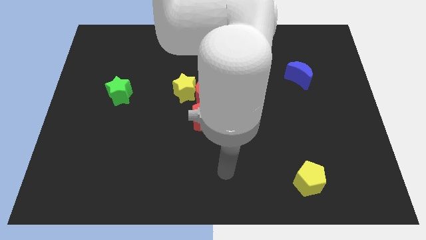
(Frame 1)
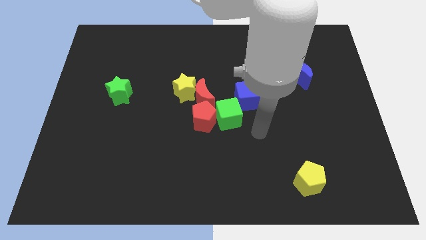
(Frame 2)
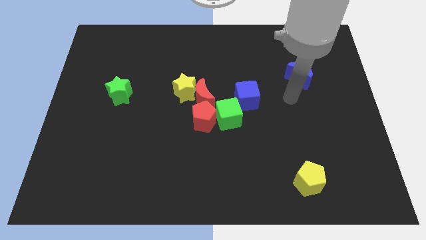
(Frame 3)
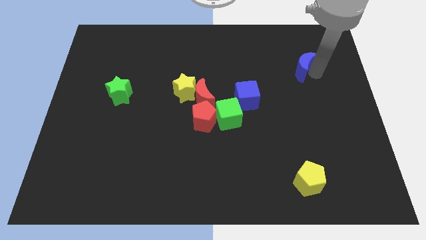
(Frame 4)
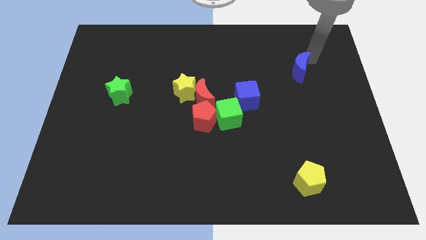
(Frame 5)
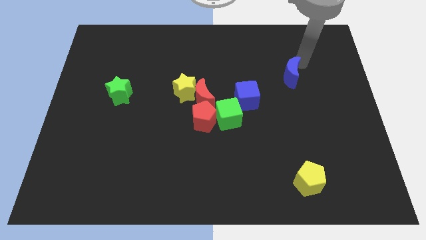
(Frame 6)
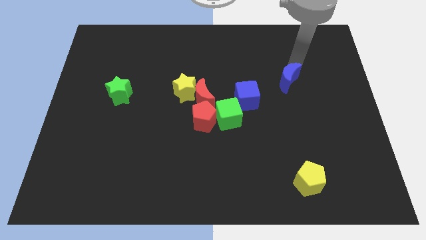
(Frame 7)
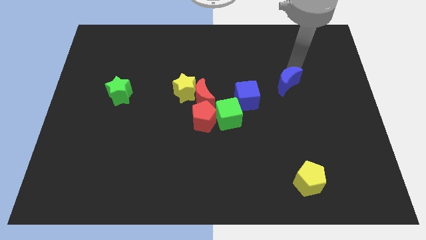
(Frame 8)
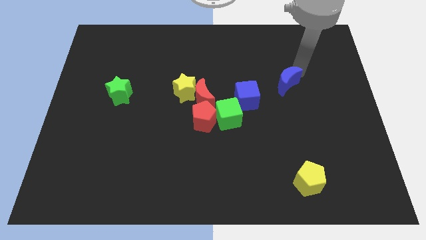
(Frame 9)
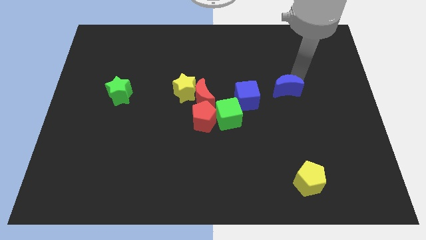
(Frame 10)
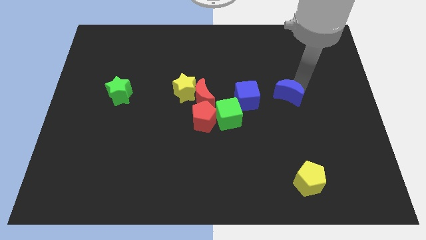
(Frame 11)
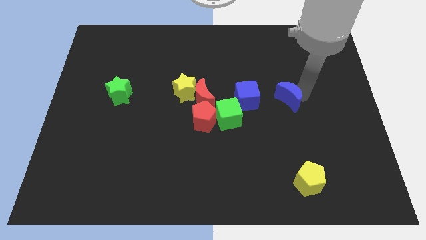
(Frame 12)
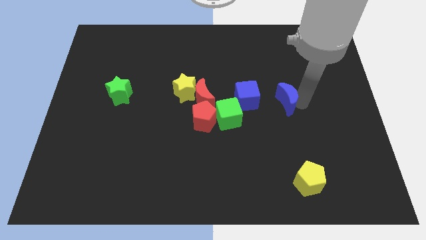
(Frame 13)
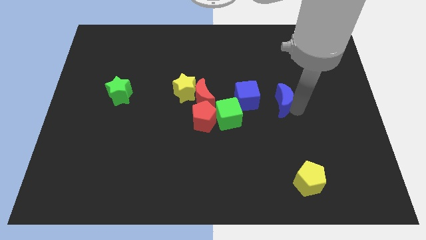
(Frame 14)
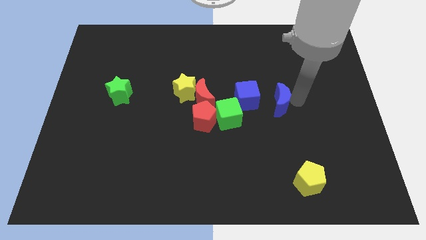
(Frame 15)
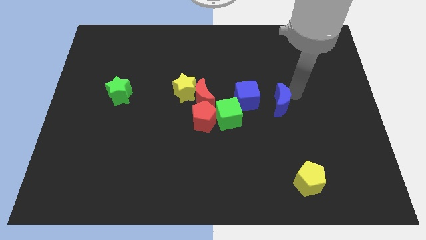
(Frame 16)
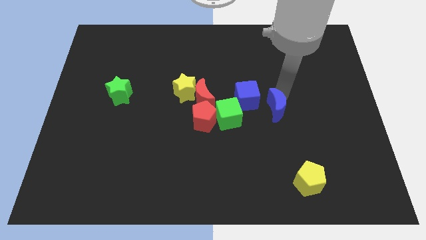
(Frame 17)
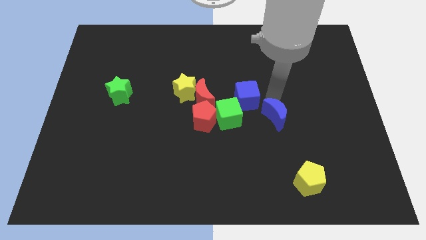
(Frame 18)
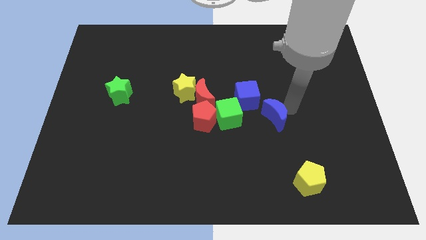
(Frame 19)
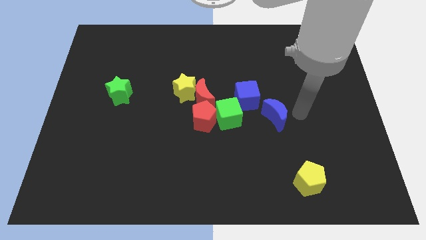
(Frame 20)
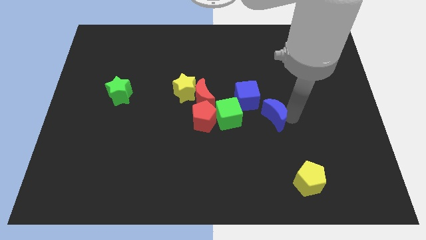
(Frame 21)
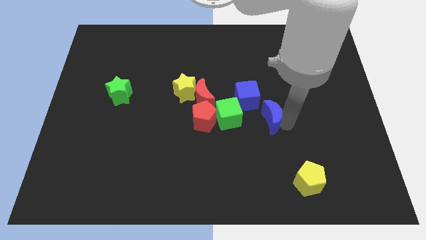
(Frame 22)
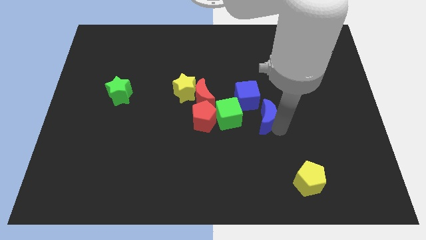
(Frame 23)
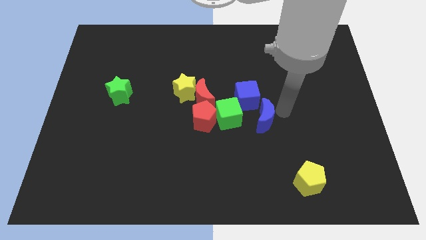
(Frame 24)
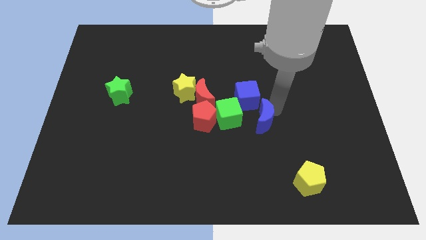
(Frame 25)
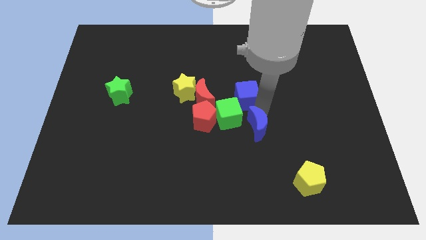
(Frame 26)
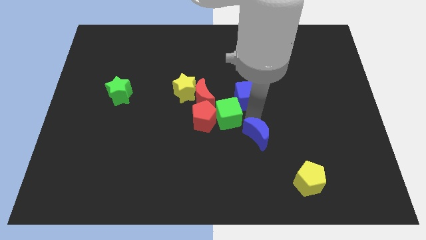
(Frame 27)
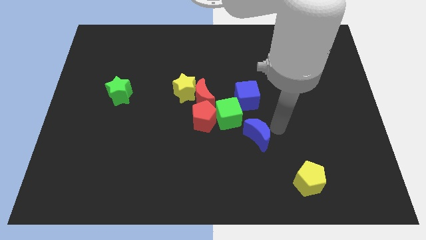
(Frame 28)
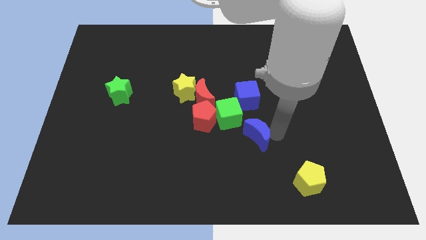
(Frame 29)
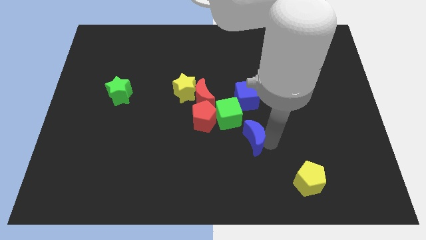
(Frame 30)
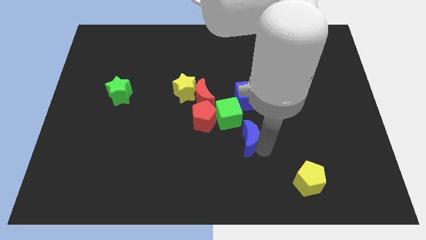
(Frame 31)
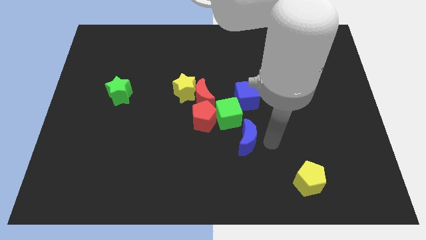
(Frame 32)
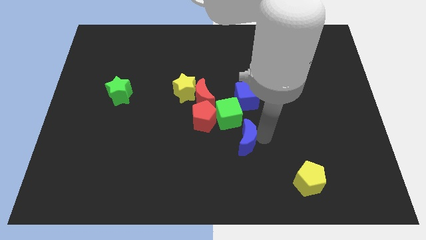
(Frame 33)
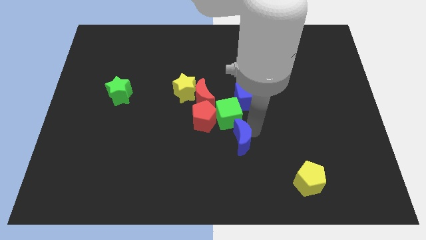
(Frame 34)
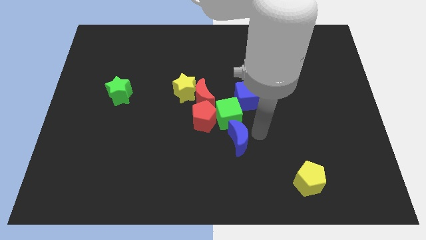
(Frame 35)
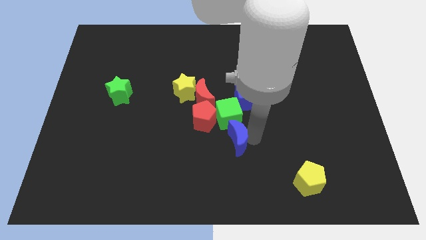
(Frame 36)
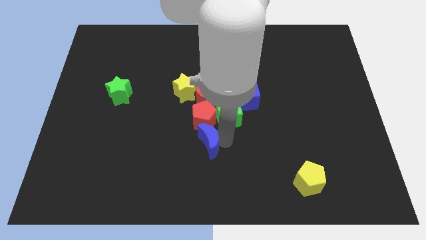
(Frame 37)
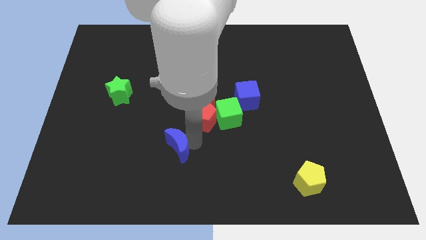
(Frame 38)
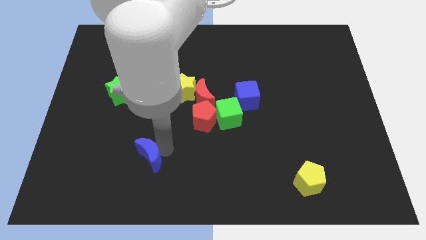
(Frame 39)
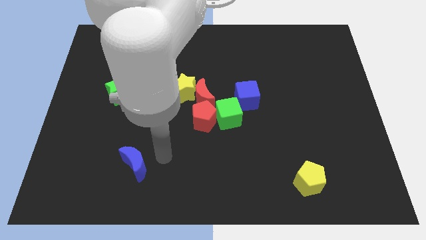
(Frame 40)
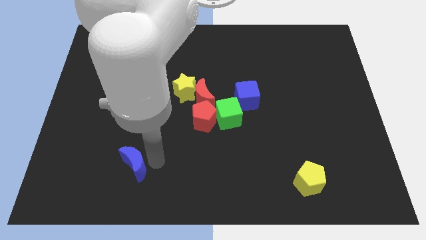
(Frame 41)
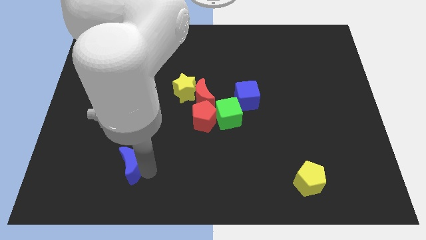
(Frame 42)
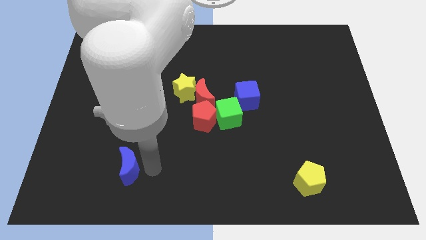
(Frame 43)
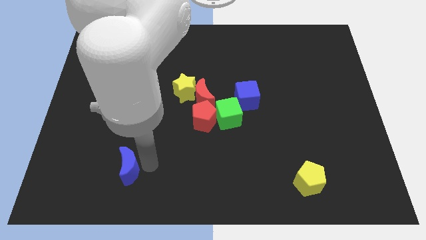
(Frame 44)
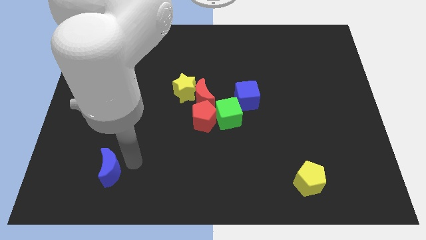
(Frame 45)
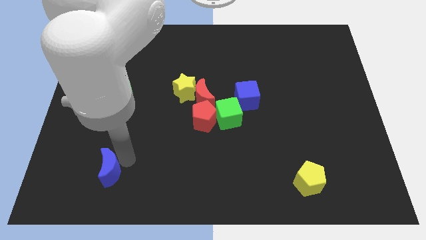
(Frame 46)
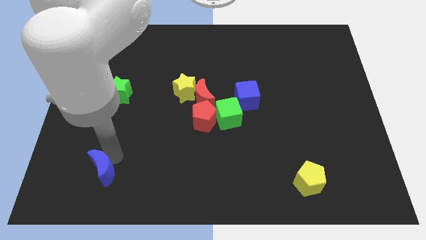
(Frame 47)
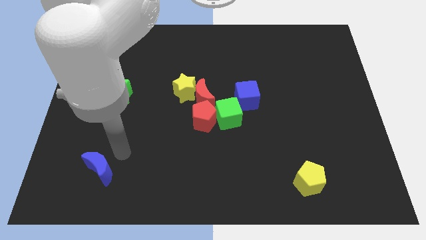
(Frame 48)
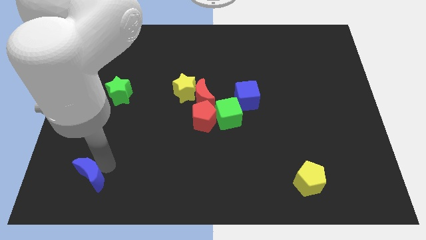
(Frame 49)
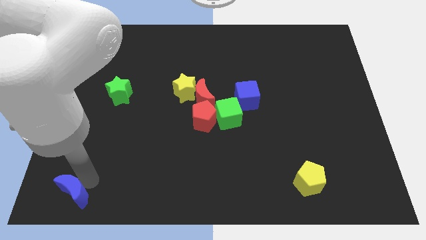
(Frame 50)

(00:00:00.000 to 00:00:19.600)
slide the blue moon to the bottom left of the board

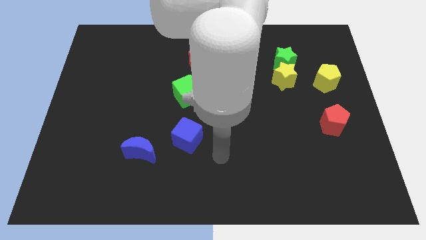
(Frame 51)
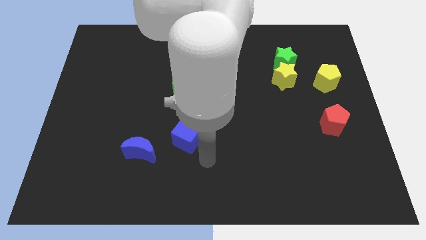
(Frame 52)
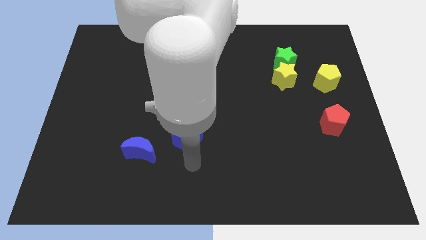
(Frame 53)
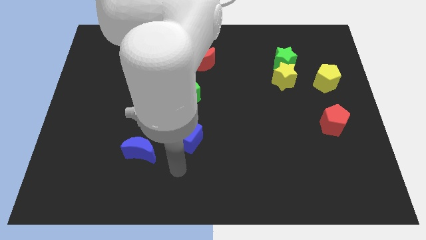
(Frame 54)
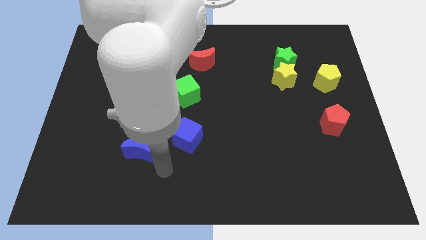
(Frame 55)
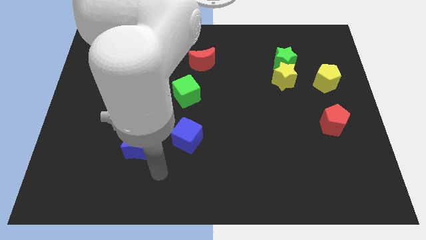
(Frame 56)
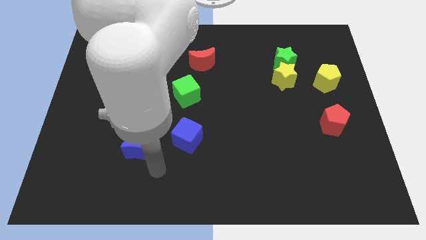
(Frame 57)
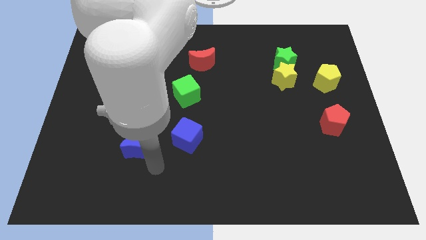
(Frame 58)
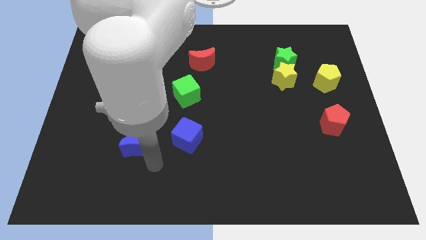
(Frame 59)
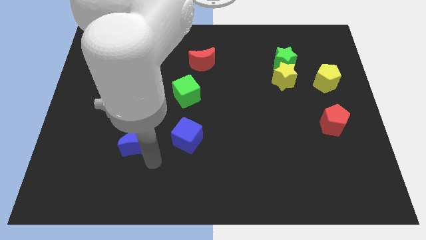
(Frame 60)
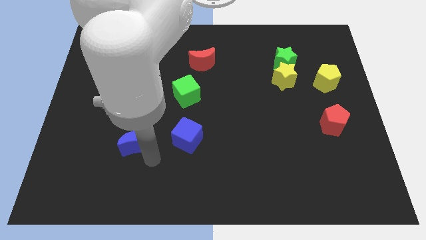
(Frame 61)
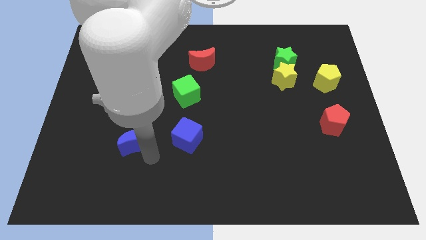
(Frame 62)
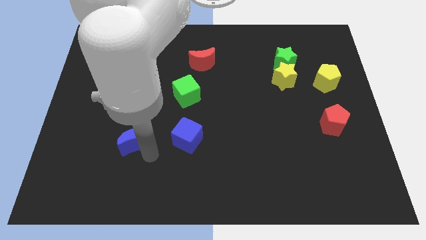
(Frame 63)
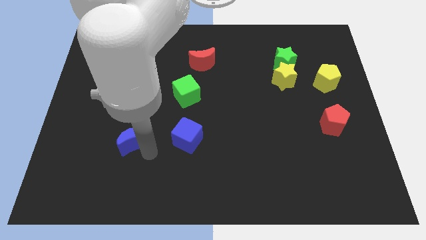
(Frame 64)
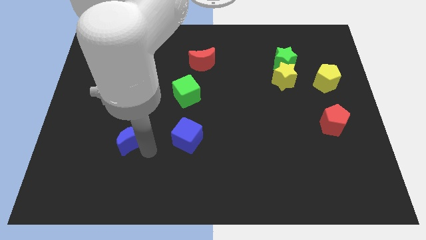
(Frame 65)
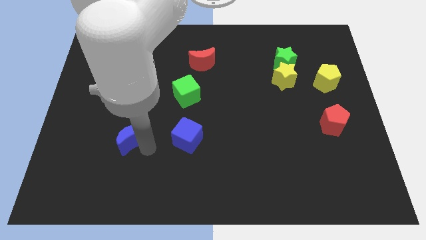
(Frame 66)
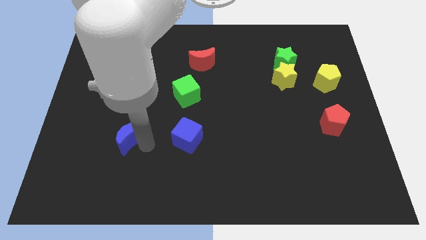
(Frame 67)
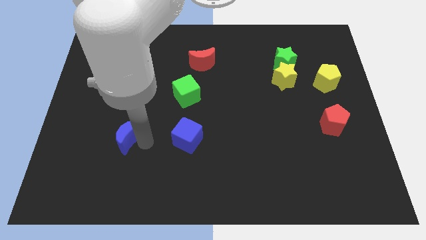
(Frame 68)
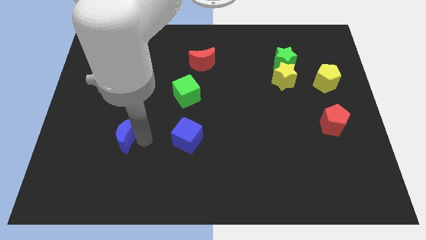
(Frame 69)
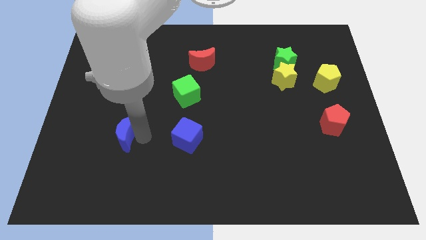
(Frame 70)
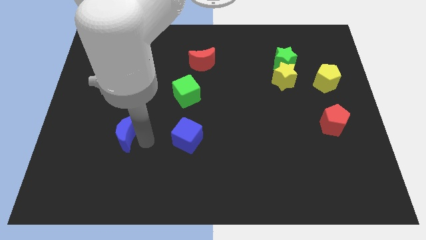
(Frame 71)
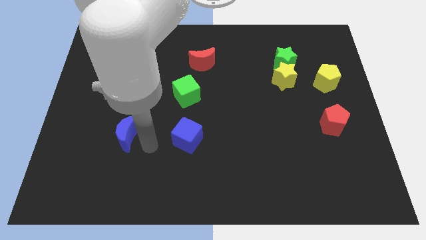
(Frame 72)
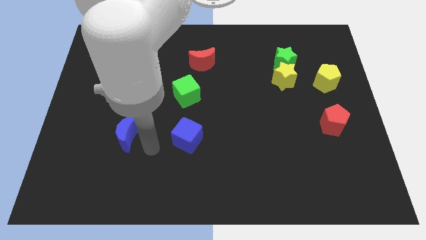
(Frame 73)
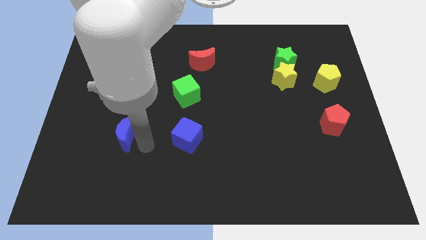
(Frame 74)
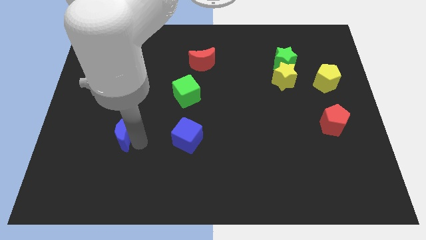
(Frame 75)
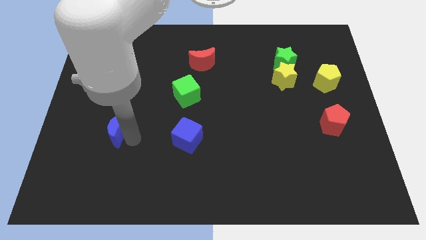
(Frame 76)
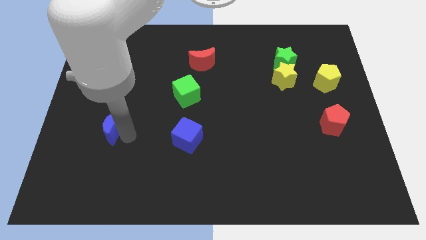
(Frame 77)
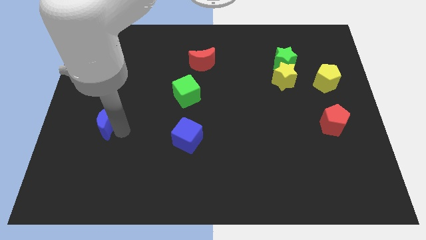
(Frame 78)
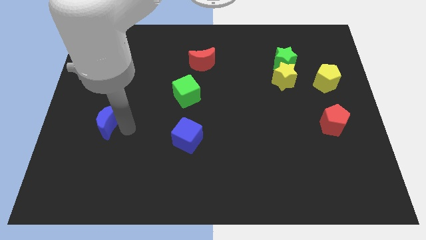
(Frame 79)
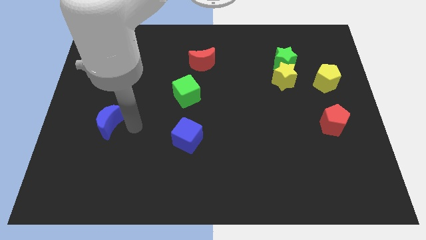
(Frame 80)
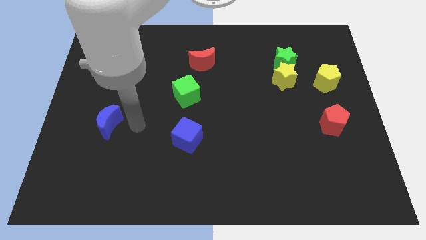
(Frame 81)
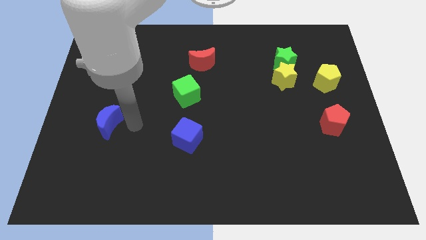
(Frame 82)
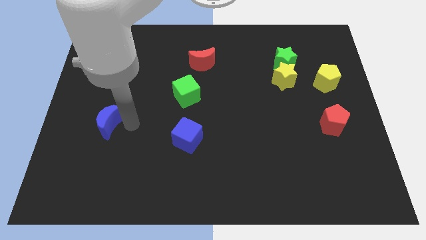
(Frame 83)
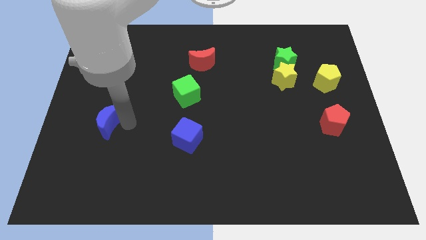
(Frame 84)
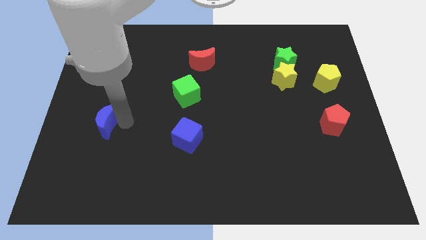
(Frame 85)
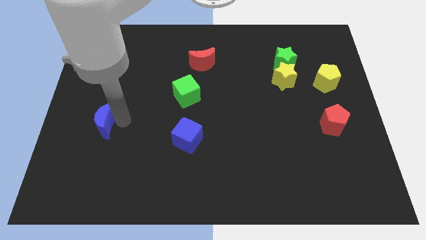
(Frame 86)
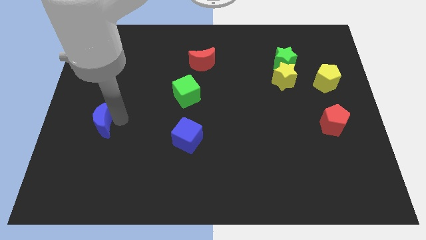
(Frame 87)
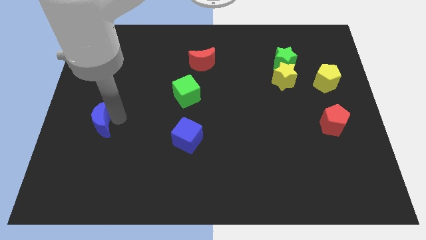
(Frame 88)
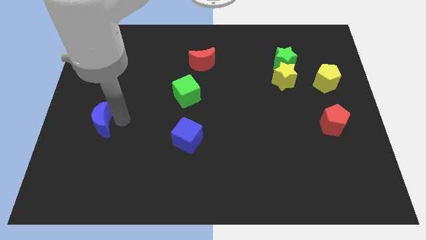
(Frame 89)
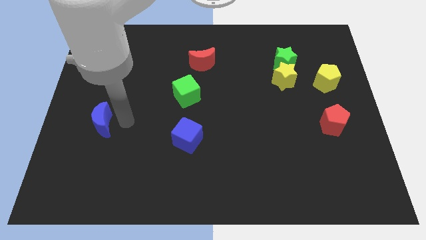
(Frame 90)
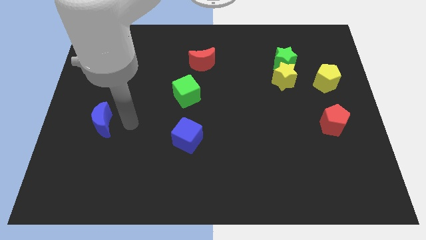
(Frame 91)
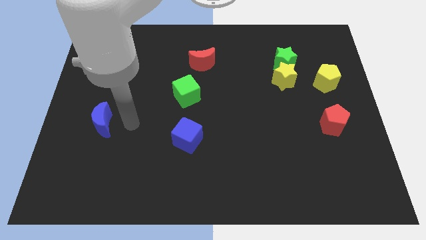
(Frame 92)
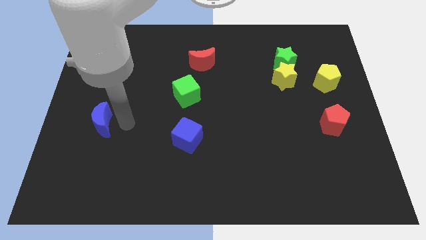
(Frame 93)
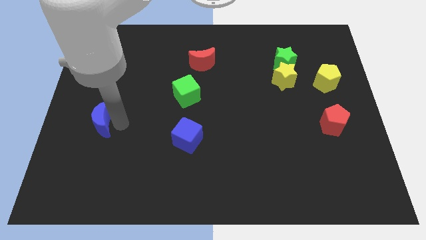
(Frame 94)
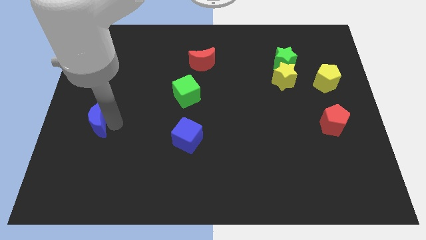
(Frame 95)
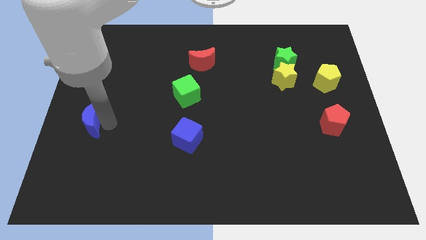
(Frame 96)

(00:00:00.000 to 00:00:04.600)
put the blue moon to the left side of the board
